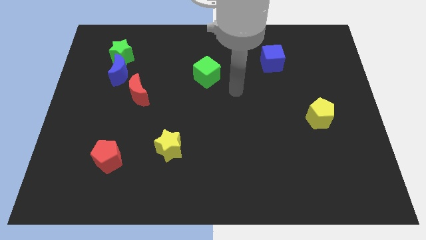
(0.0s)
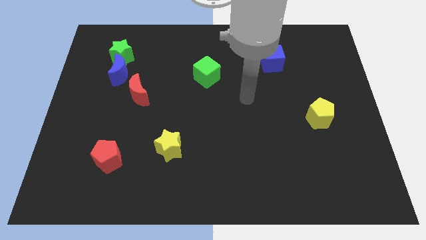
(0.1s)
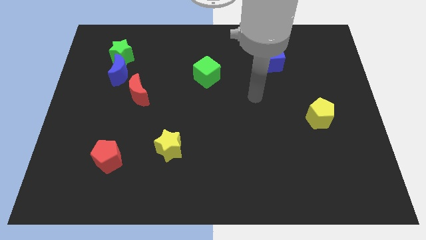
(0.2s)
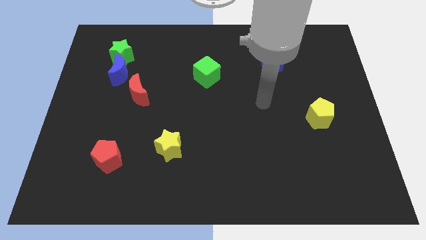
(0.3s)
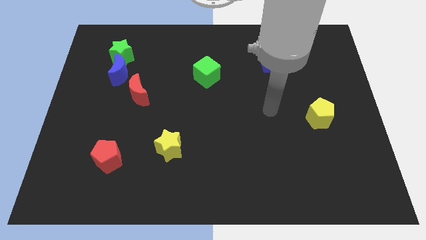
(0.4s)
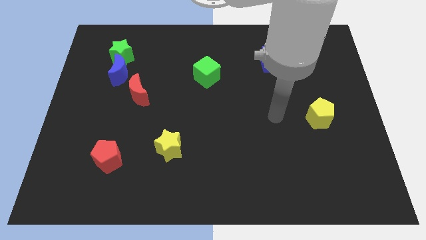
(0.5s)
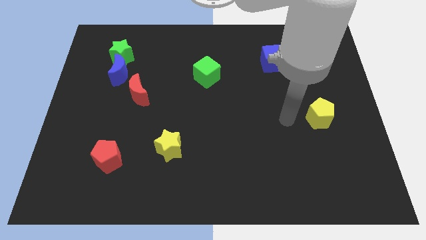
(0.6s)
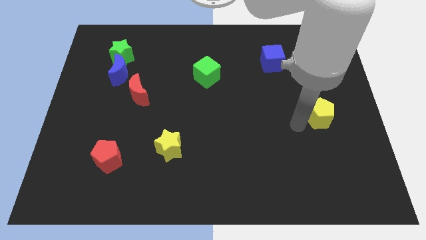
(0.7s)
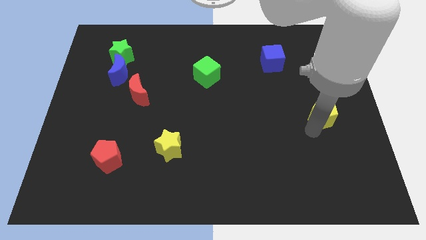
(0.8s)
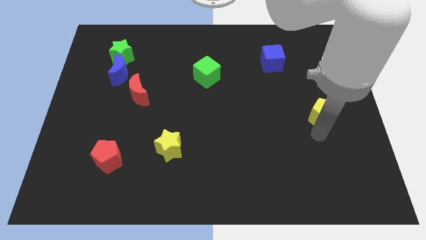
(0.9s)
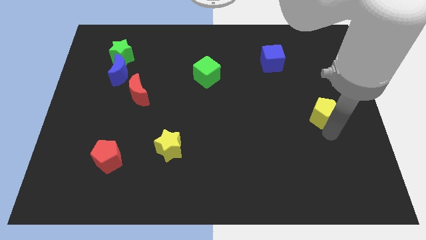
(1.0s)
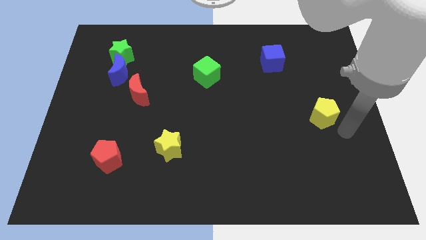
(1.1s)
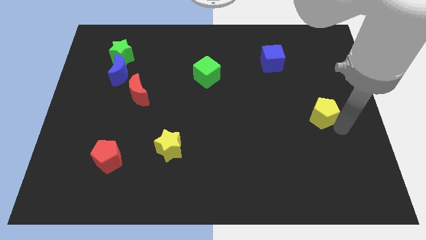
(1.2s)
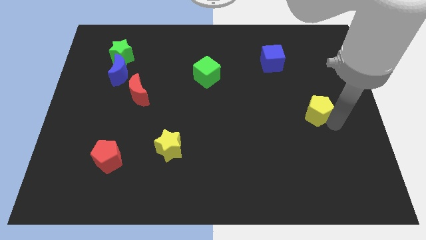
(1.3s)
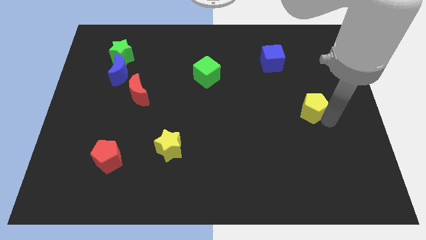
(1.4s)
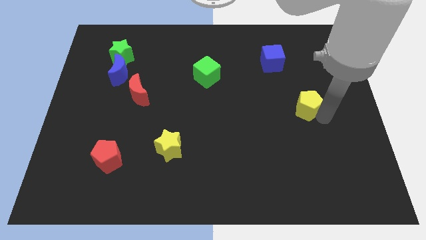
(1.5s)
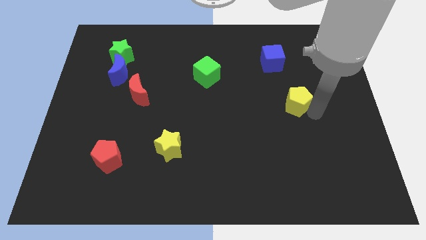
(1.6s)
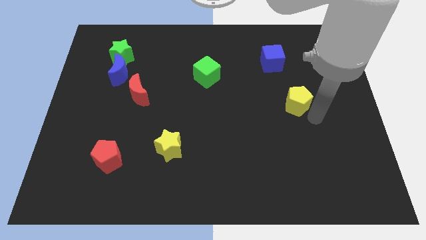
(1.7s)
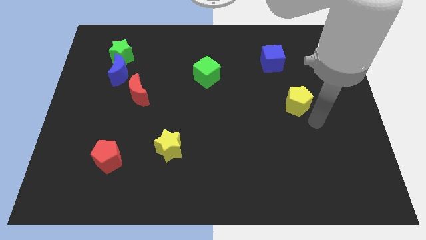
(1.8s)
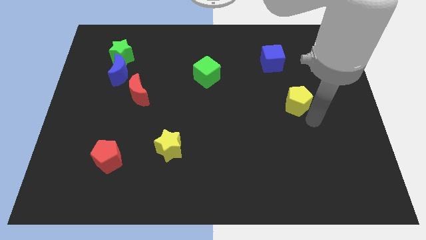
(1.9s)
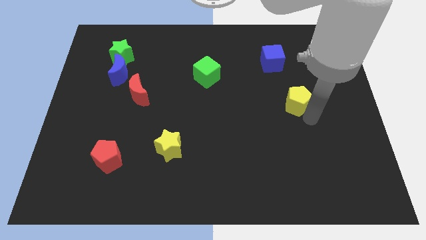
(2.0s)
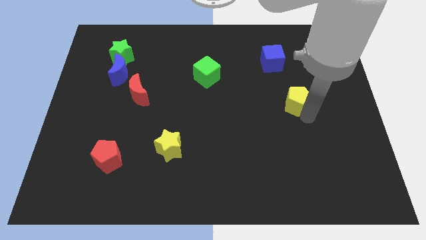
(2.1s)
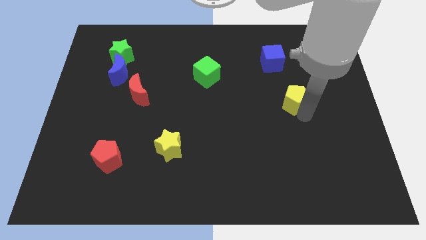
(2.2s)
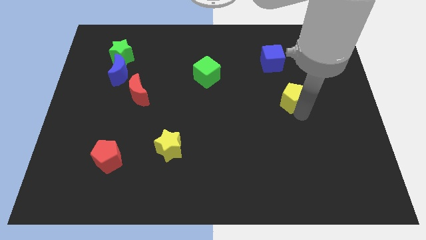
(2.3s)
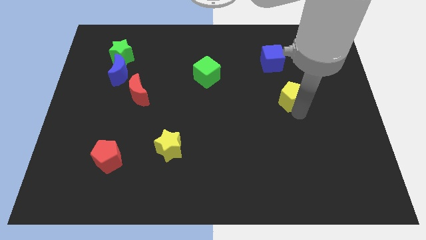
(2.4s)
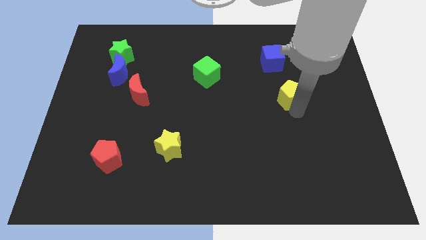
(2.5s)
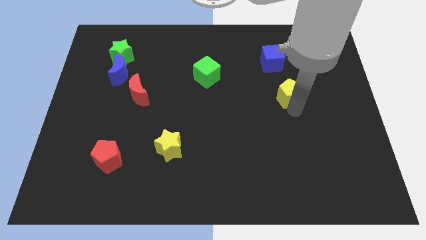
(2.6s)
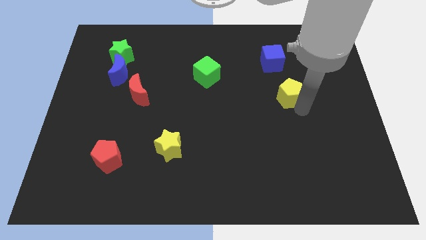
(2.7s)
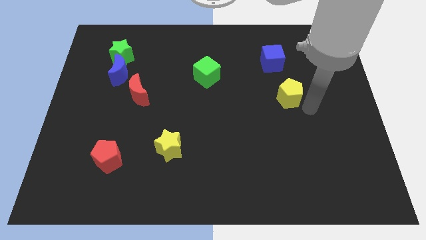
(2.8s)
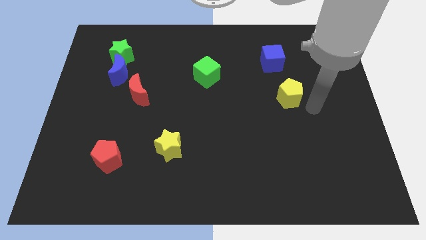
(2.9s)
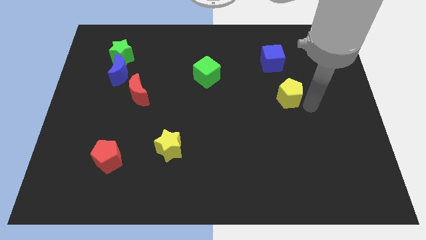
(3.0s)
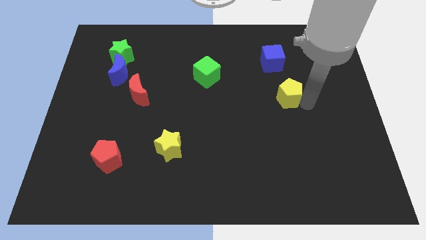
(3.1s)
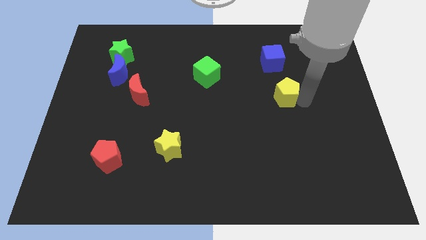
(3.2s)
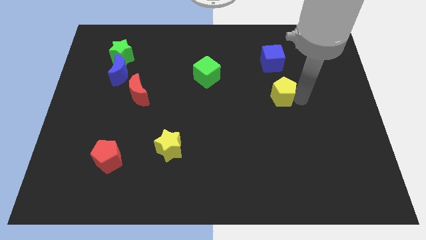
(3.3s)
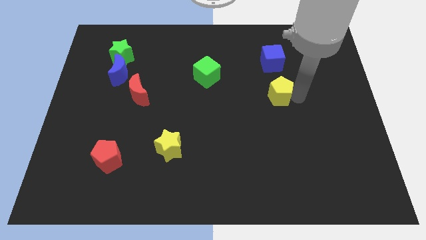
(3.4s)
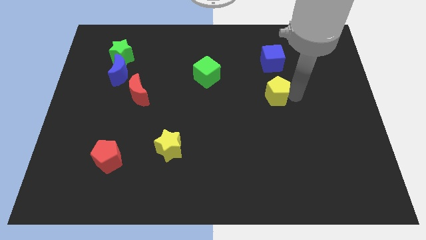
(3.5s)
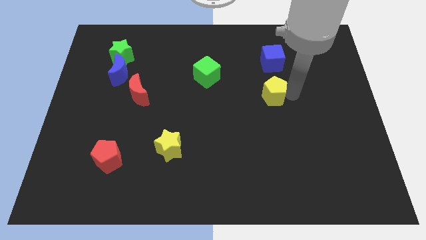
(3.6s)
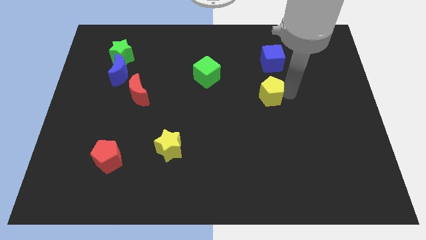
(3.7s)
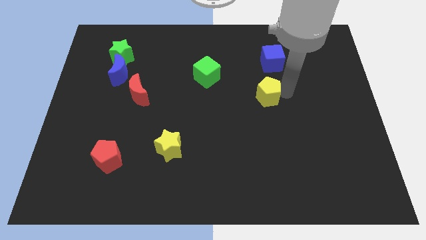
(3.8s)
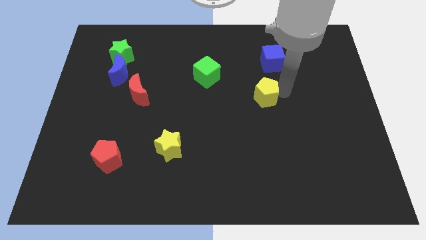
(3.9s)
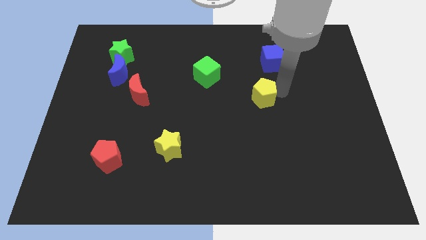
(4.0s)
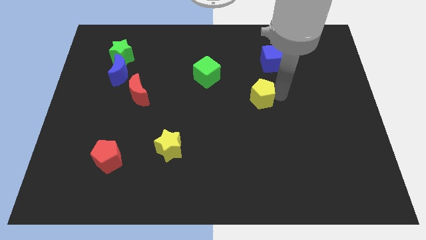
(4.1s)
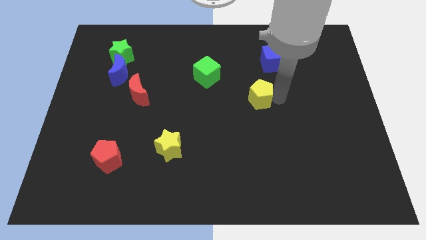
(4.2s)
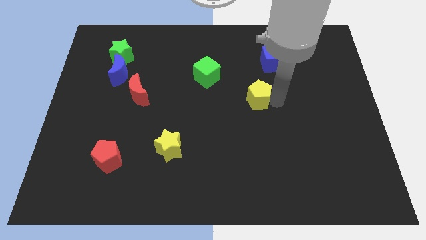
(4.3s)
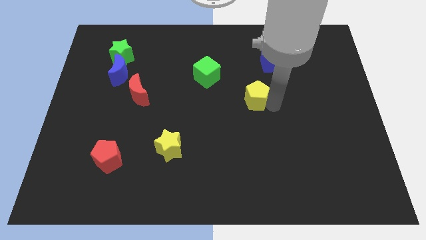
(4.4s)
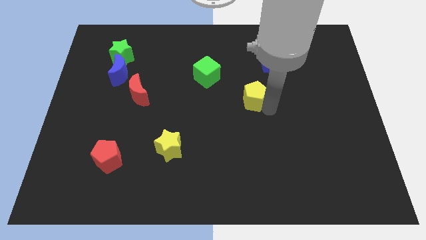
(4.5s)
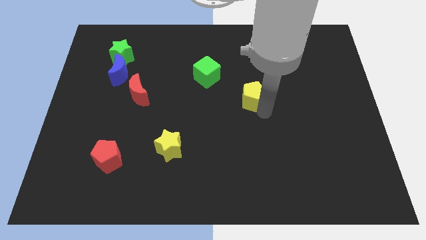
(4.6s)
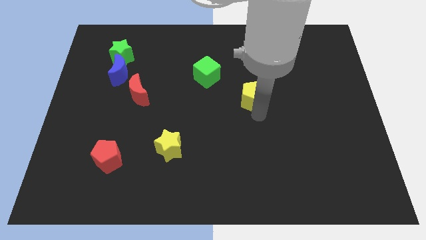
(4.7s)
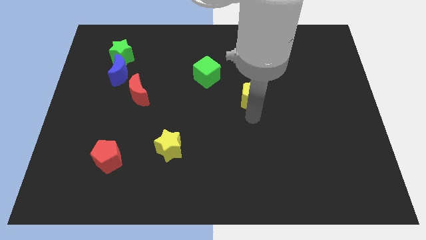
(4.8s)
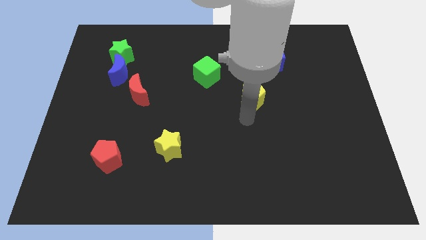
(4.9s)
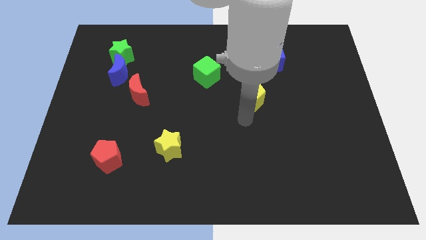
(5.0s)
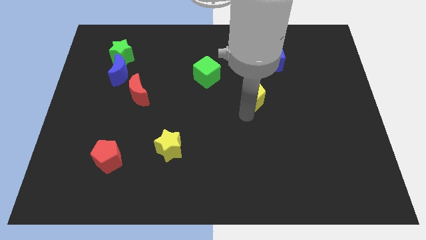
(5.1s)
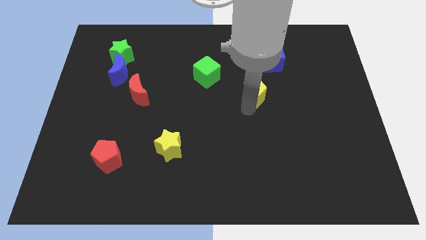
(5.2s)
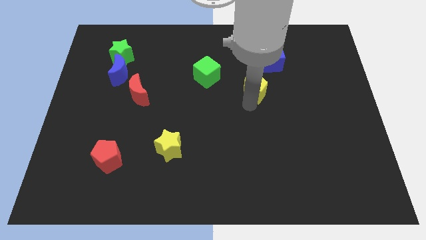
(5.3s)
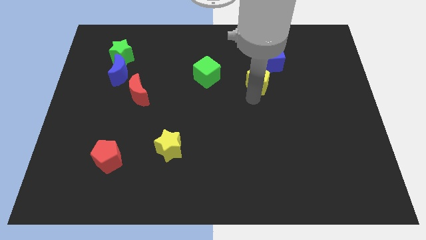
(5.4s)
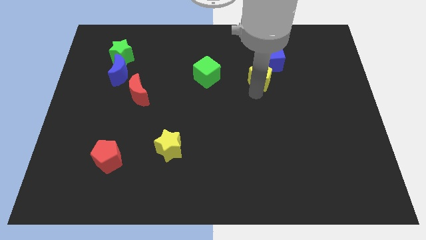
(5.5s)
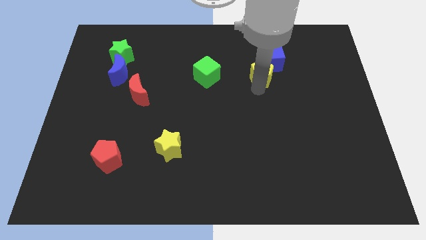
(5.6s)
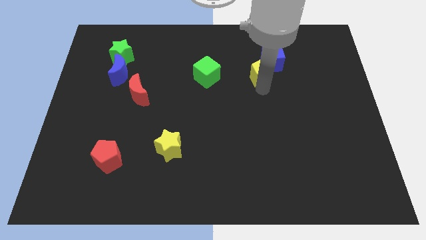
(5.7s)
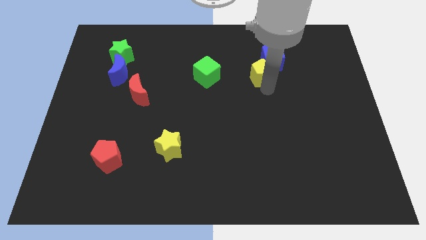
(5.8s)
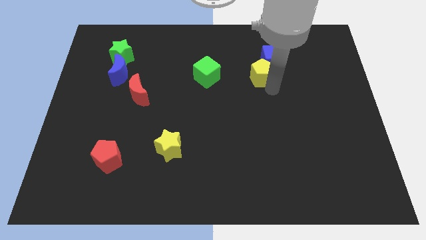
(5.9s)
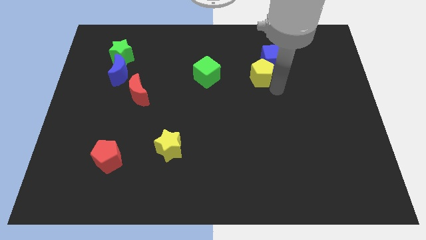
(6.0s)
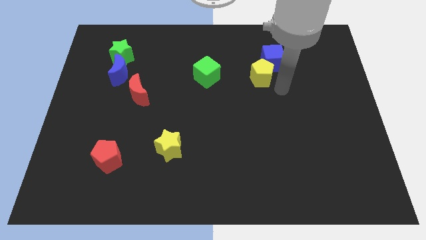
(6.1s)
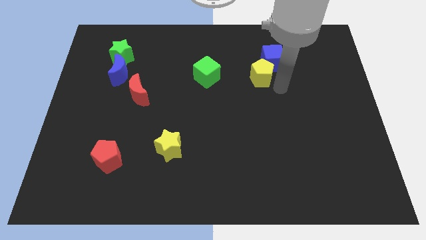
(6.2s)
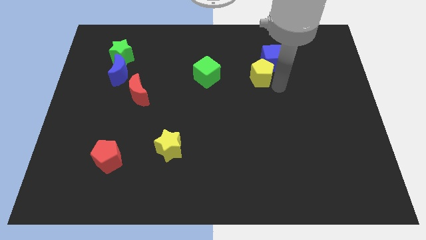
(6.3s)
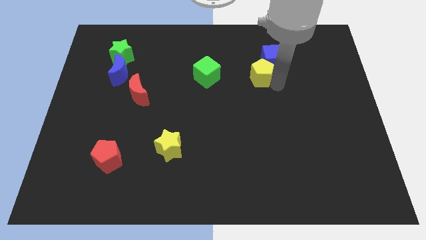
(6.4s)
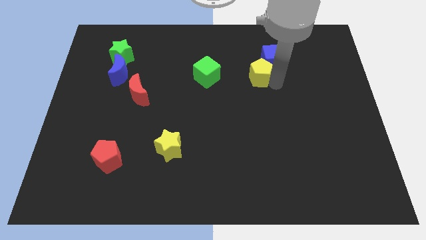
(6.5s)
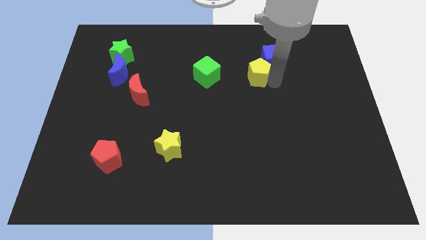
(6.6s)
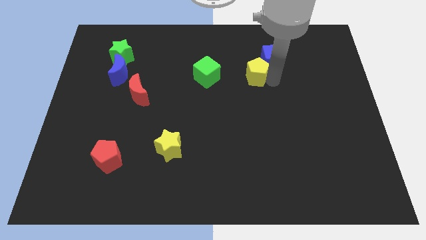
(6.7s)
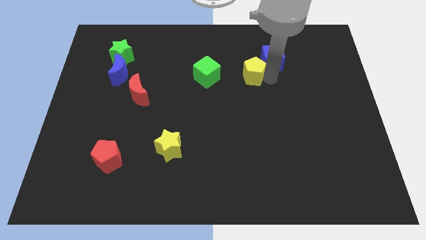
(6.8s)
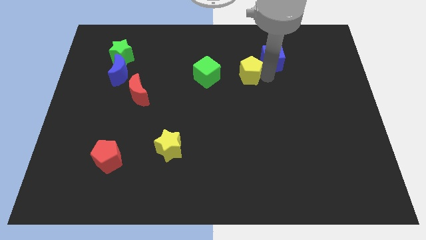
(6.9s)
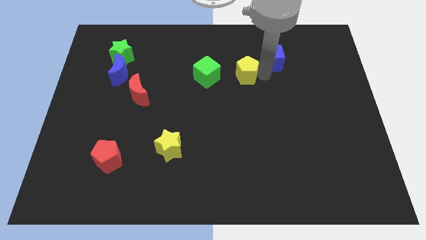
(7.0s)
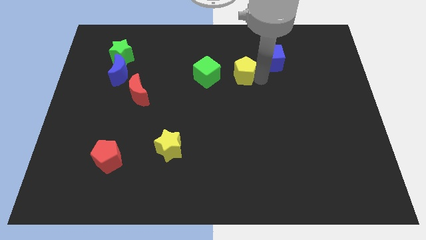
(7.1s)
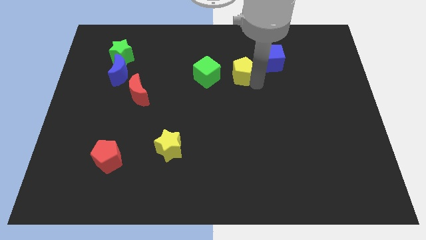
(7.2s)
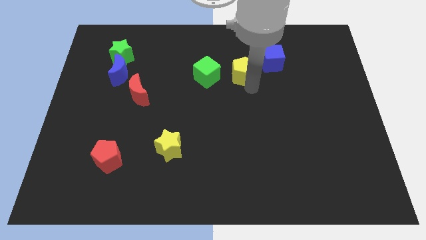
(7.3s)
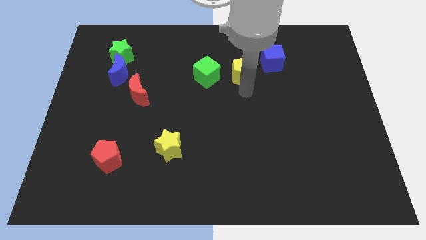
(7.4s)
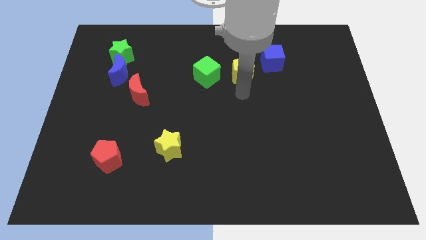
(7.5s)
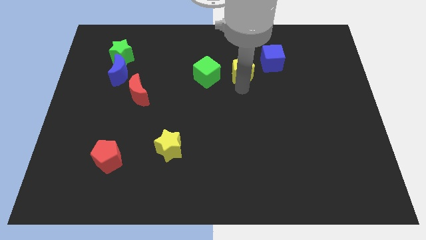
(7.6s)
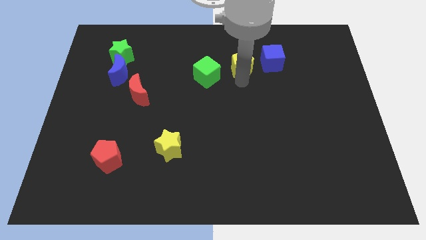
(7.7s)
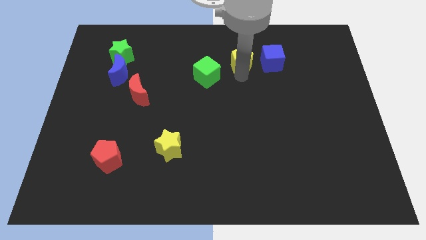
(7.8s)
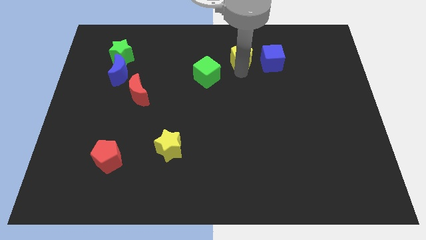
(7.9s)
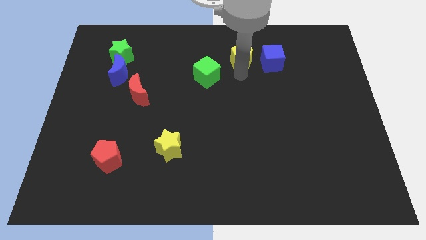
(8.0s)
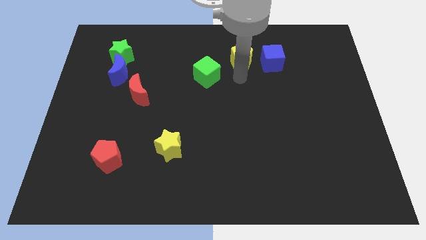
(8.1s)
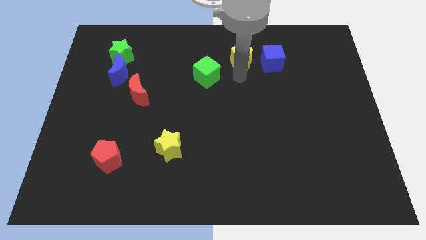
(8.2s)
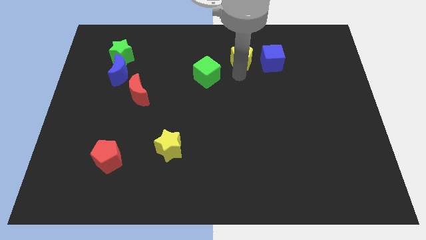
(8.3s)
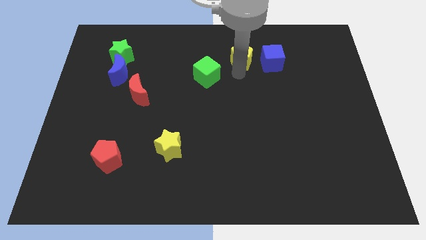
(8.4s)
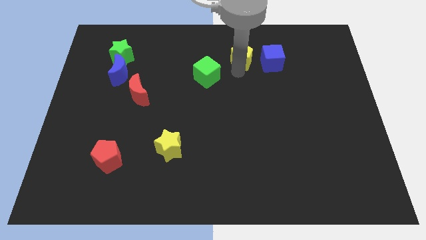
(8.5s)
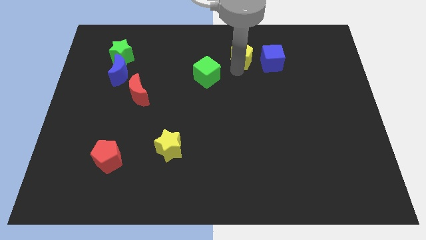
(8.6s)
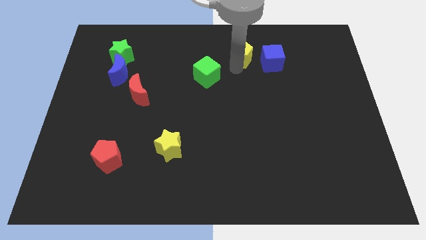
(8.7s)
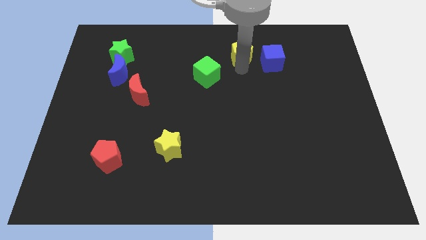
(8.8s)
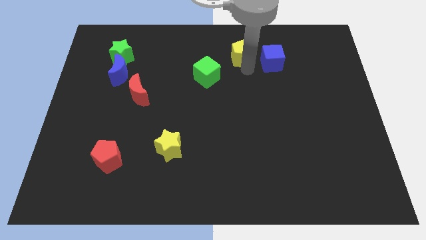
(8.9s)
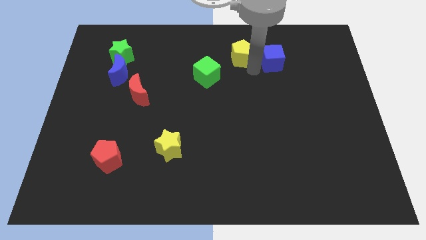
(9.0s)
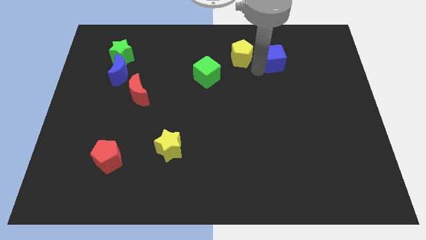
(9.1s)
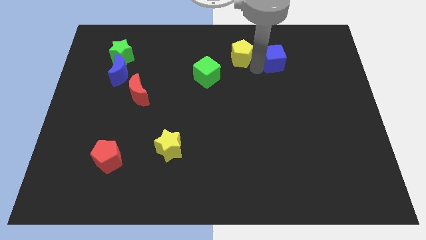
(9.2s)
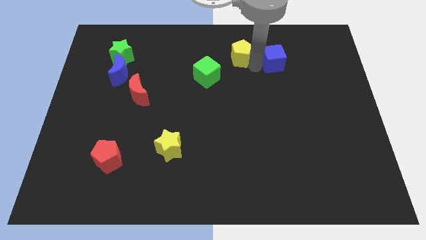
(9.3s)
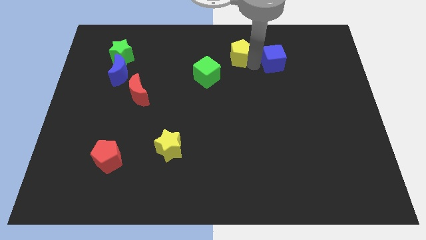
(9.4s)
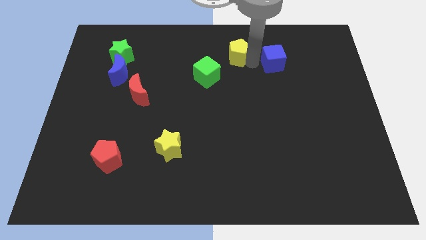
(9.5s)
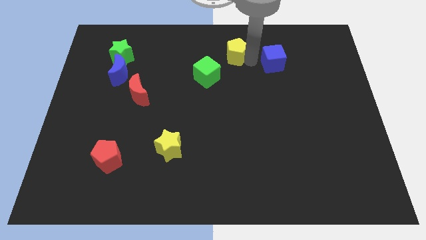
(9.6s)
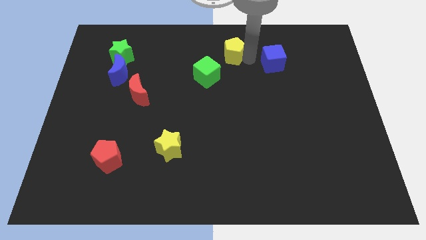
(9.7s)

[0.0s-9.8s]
put the yellow pentagon to the towards your base
